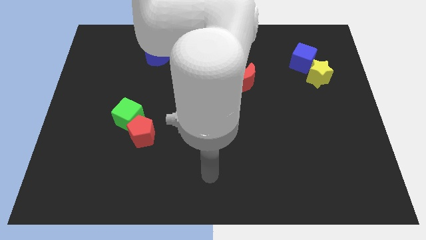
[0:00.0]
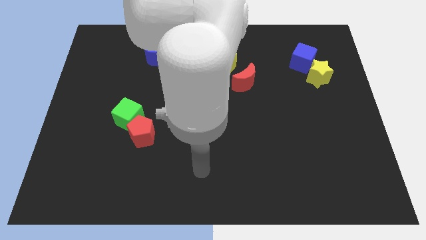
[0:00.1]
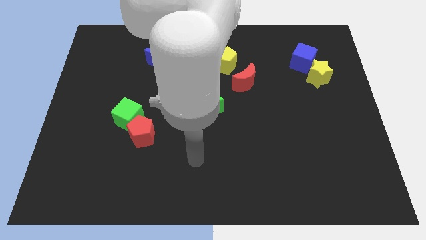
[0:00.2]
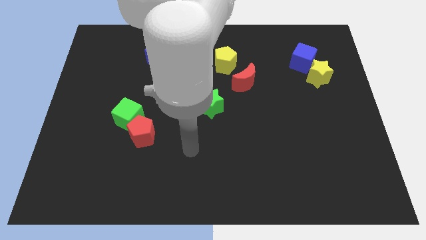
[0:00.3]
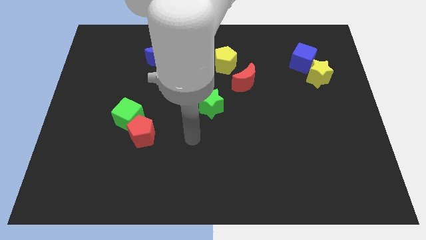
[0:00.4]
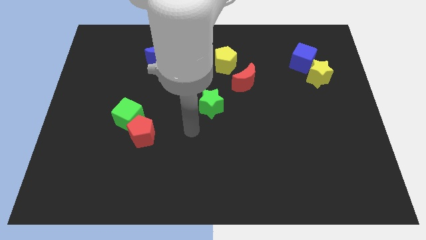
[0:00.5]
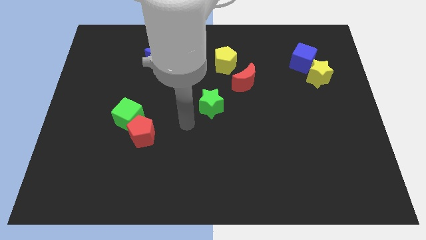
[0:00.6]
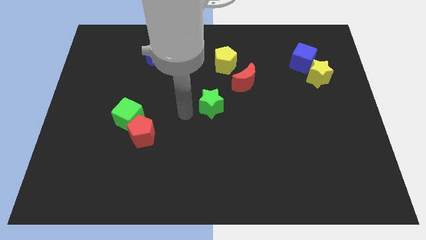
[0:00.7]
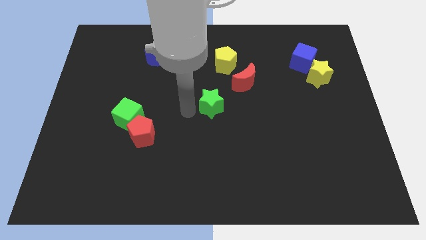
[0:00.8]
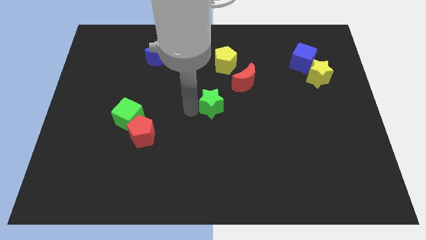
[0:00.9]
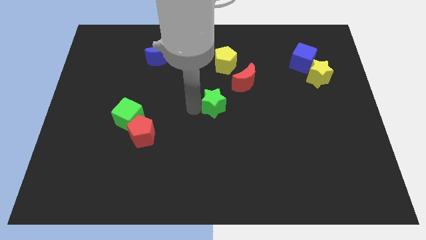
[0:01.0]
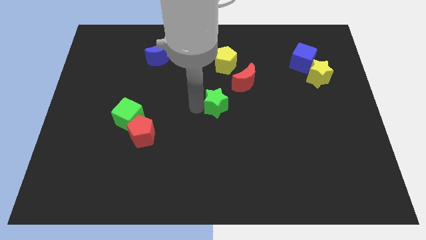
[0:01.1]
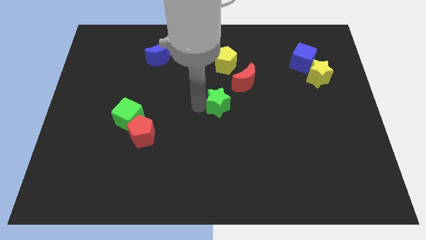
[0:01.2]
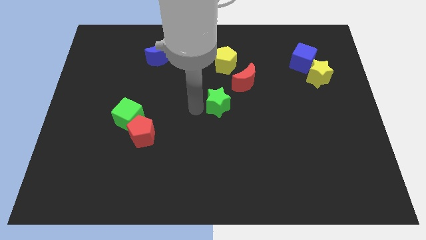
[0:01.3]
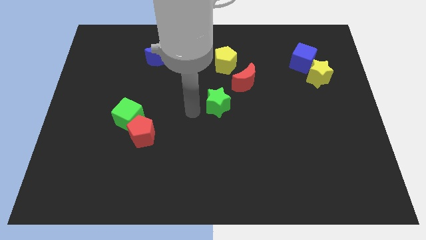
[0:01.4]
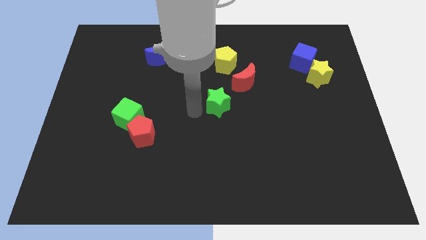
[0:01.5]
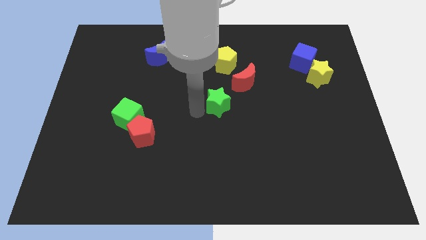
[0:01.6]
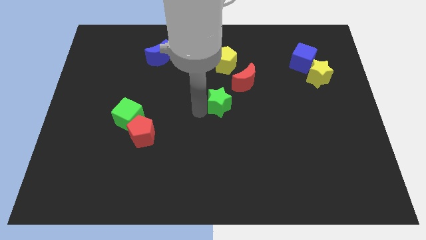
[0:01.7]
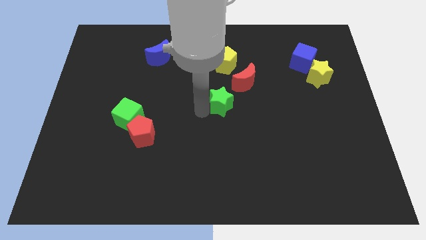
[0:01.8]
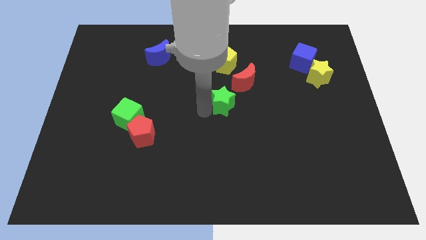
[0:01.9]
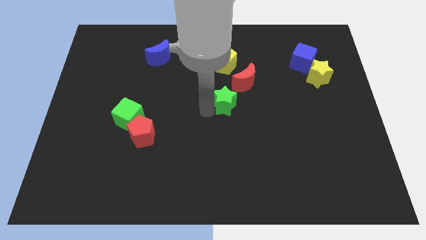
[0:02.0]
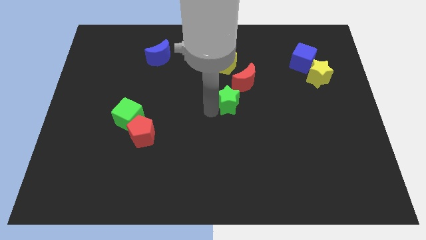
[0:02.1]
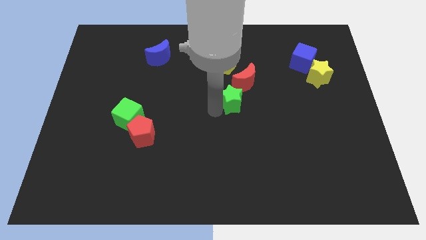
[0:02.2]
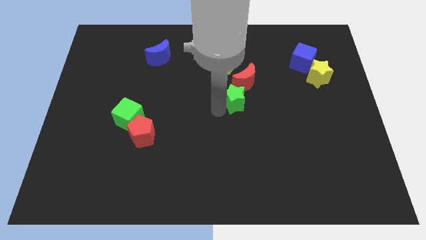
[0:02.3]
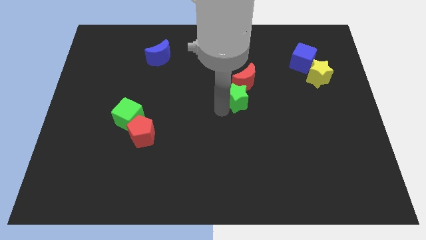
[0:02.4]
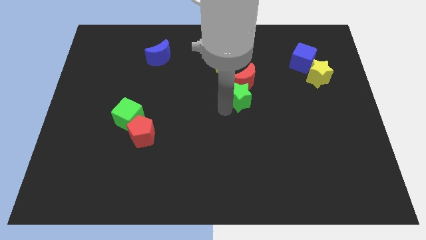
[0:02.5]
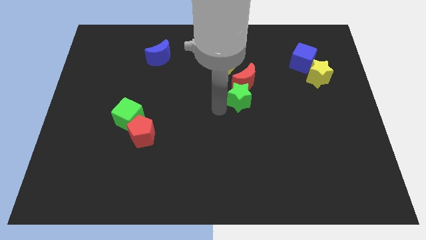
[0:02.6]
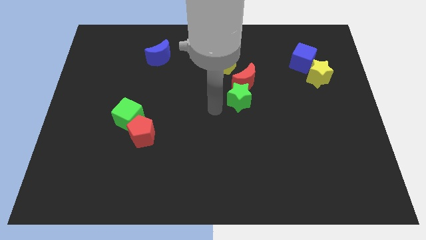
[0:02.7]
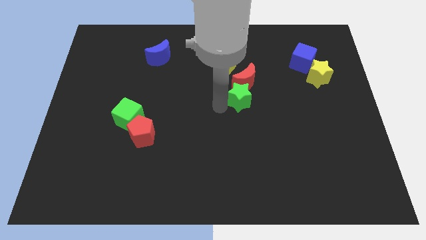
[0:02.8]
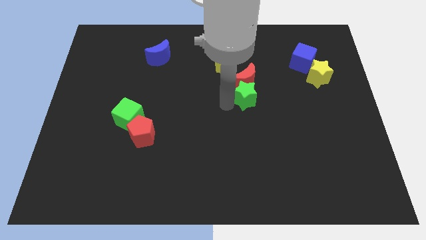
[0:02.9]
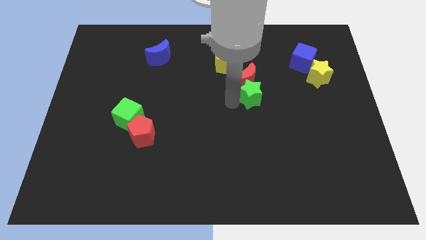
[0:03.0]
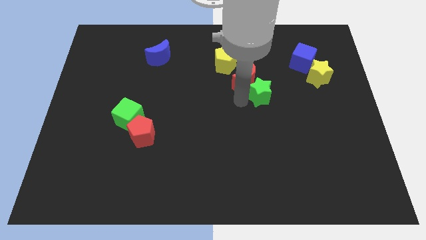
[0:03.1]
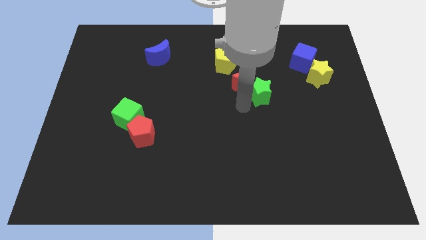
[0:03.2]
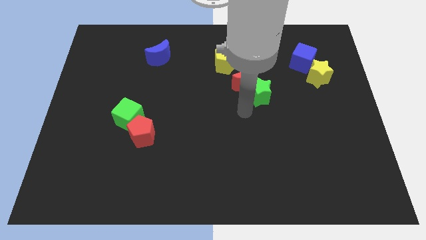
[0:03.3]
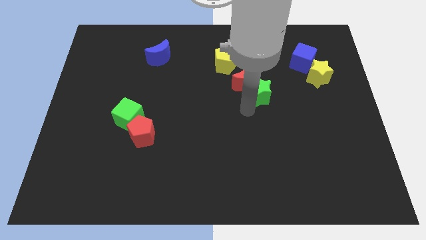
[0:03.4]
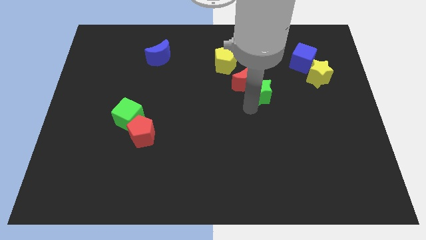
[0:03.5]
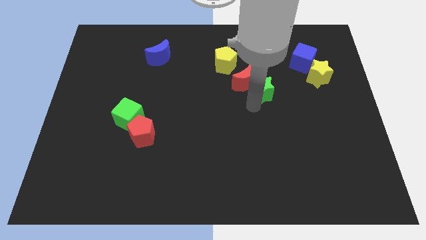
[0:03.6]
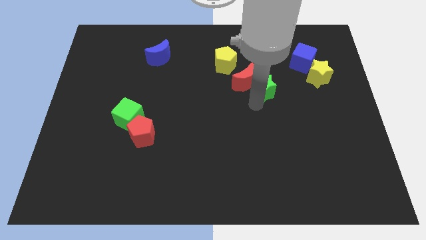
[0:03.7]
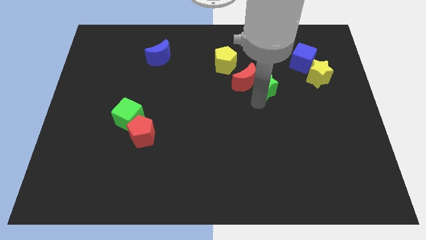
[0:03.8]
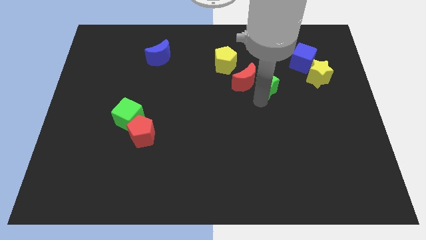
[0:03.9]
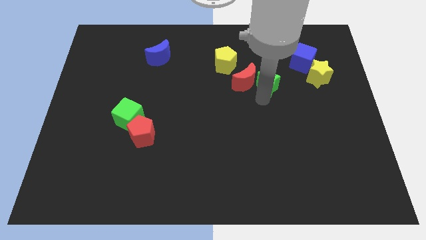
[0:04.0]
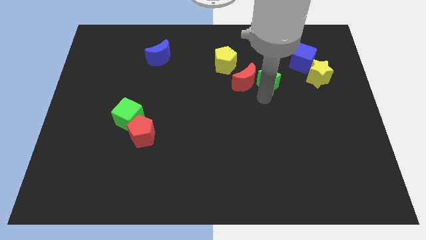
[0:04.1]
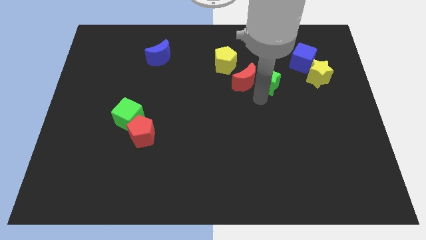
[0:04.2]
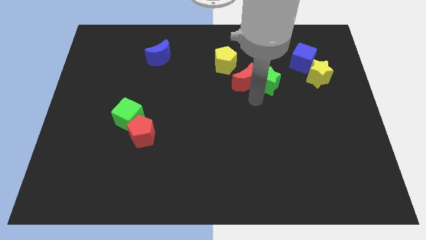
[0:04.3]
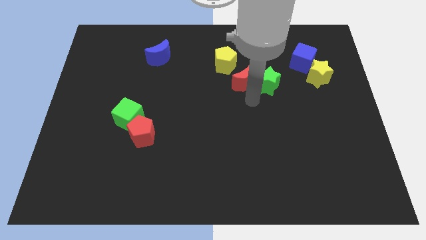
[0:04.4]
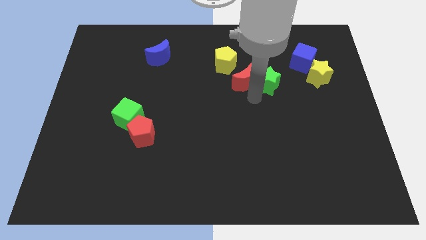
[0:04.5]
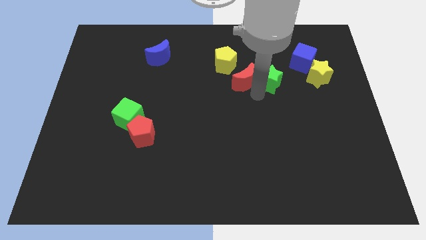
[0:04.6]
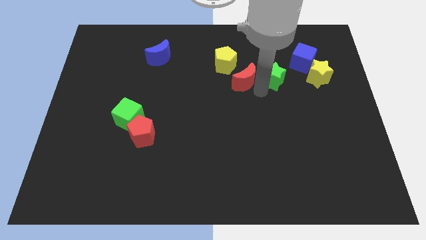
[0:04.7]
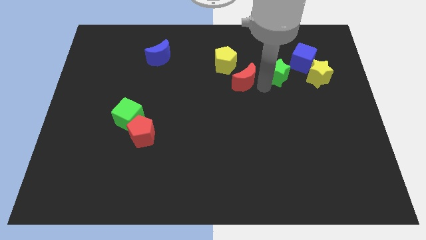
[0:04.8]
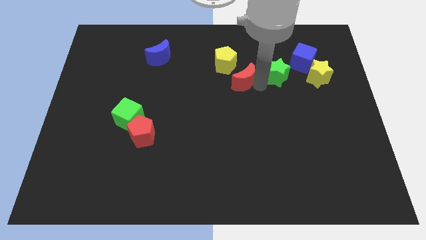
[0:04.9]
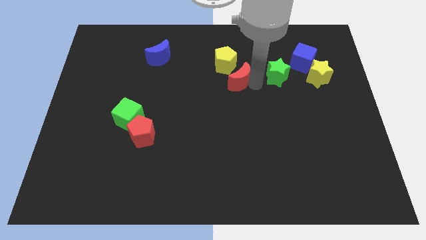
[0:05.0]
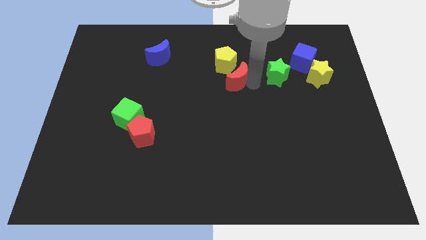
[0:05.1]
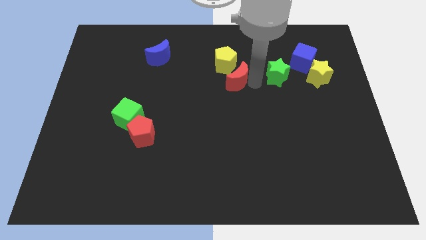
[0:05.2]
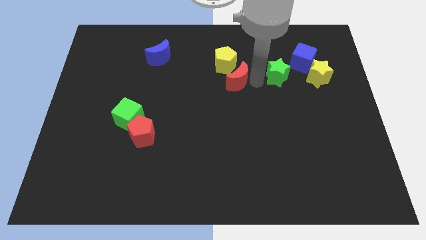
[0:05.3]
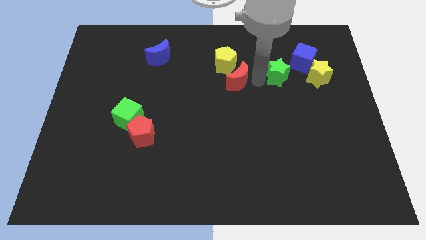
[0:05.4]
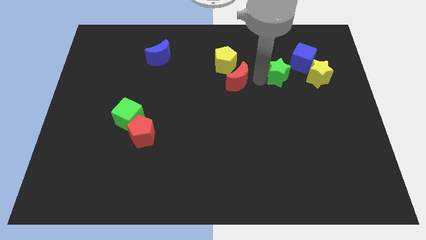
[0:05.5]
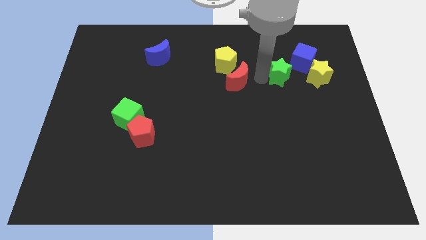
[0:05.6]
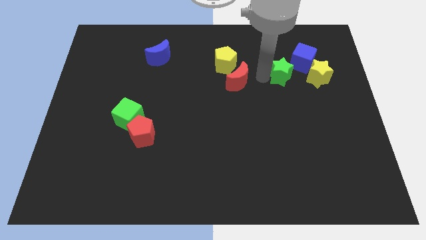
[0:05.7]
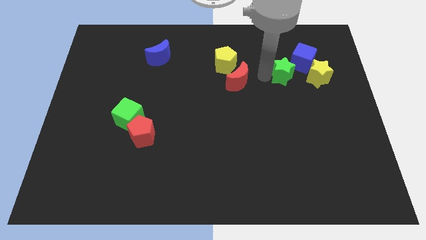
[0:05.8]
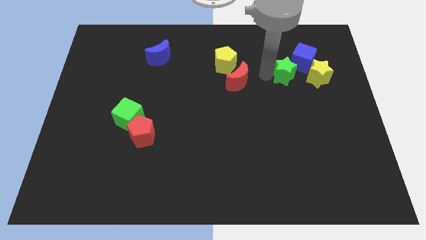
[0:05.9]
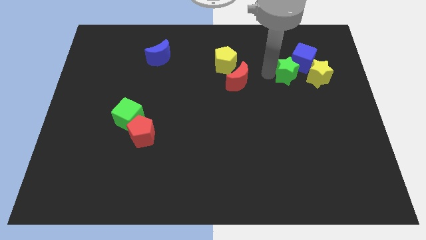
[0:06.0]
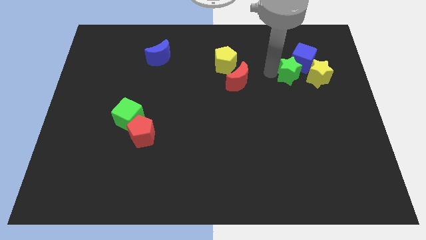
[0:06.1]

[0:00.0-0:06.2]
move the green star towards the blue cube

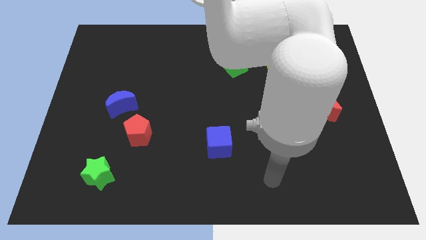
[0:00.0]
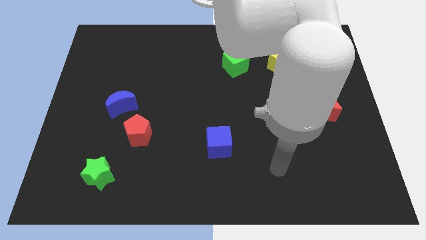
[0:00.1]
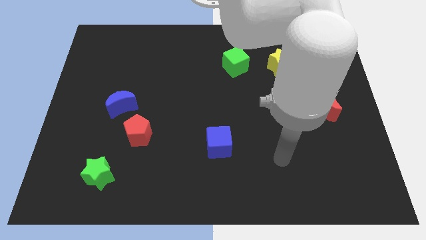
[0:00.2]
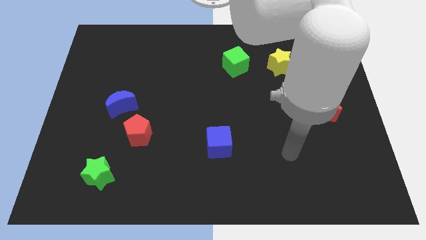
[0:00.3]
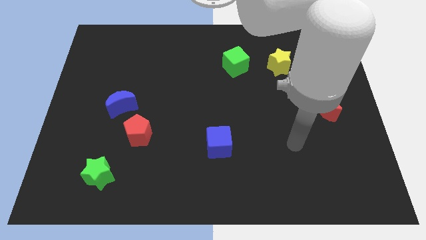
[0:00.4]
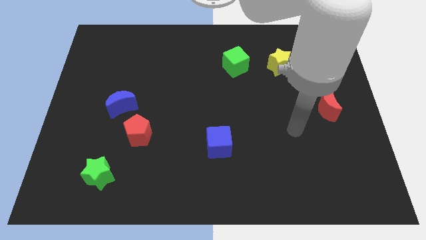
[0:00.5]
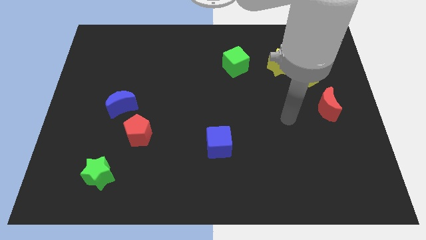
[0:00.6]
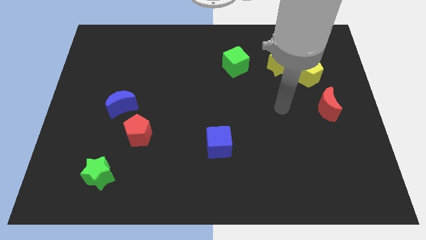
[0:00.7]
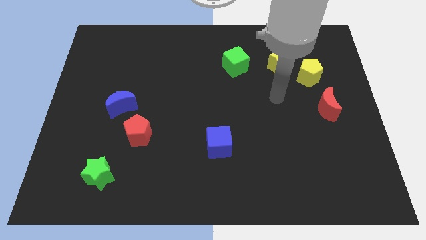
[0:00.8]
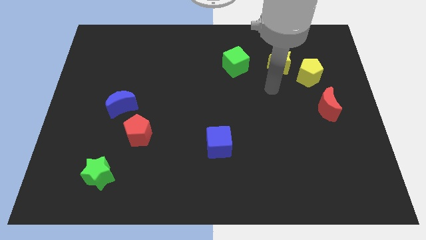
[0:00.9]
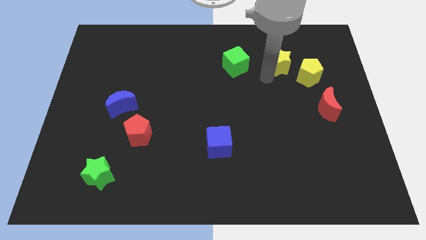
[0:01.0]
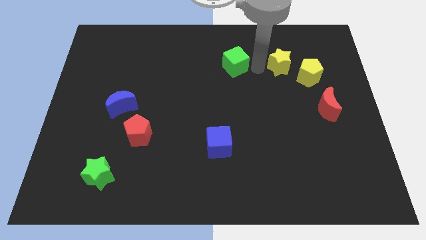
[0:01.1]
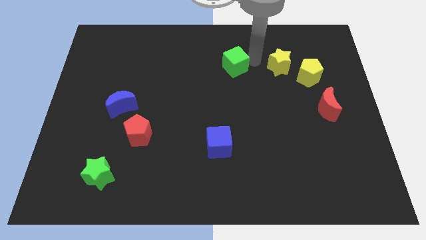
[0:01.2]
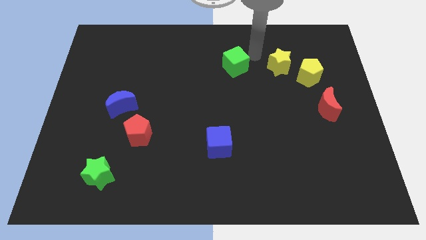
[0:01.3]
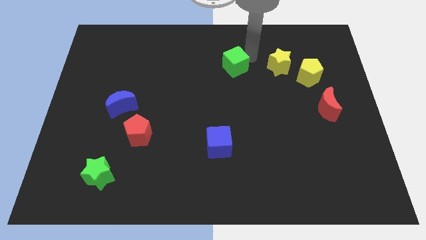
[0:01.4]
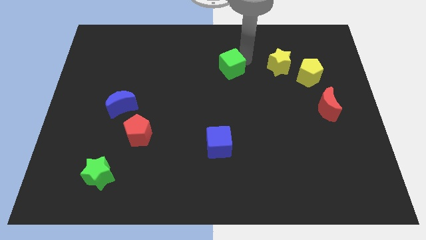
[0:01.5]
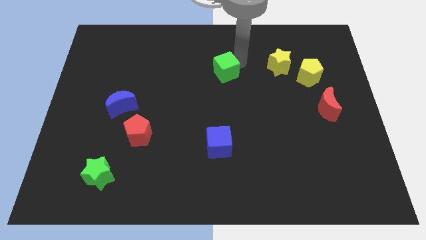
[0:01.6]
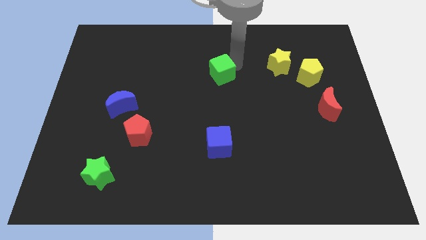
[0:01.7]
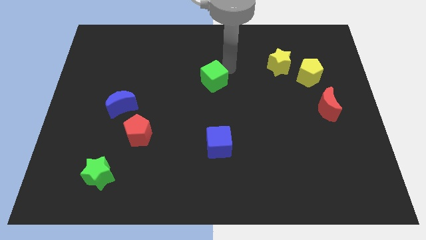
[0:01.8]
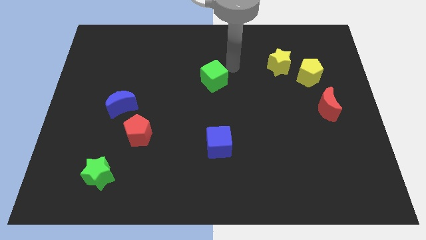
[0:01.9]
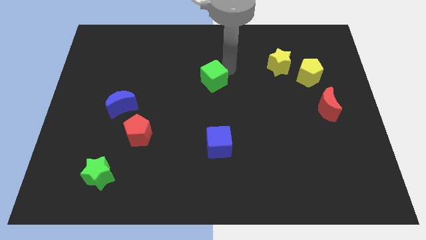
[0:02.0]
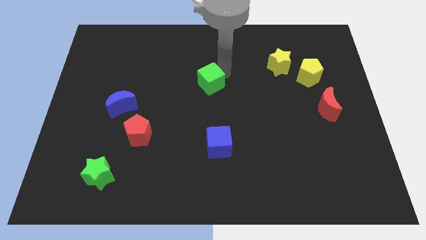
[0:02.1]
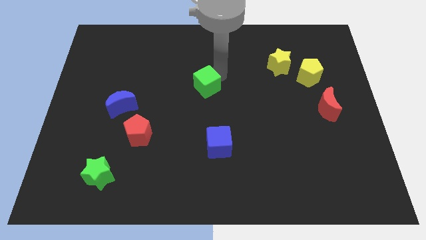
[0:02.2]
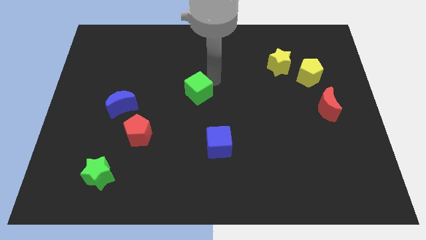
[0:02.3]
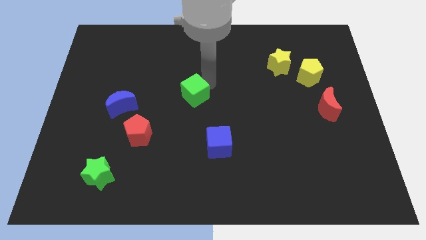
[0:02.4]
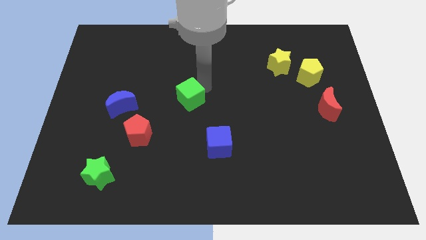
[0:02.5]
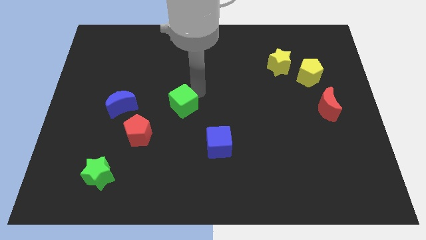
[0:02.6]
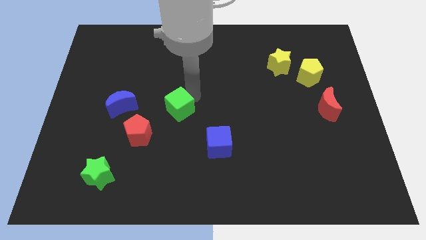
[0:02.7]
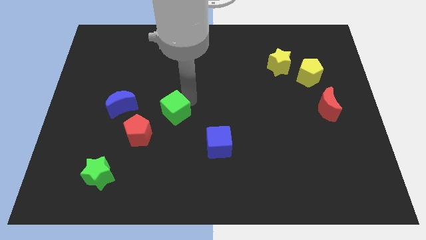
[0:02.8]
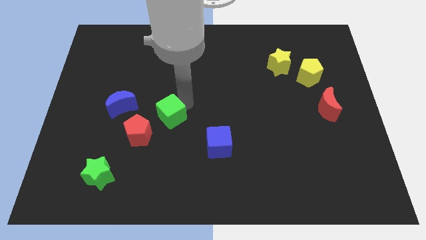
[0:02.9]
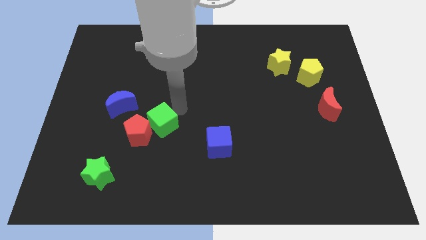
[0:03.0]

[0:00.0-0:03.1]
push the green cube next to the red pentagon
